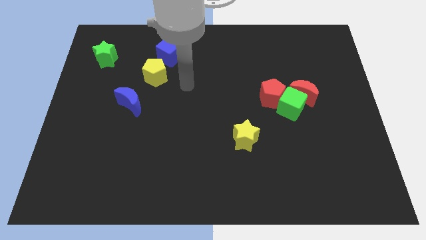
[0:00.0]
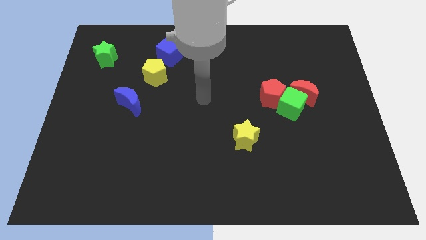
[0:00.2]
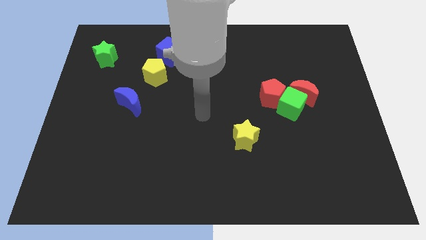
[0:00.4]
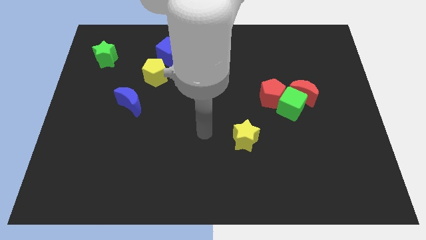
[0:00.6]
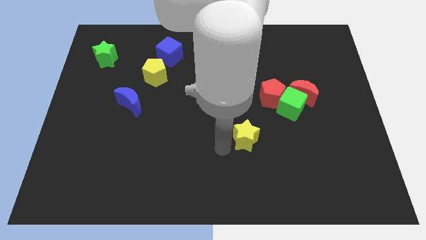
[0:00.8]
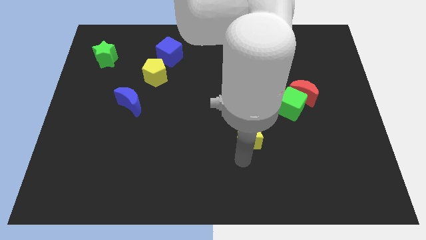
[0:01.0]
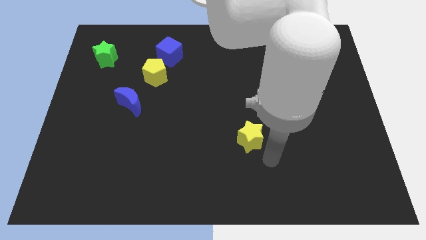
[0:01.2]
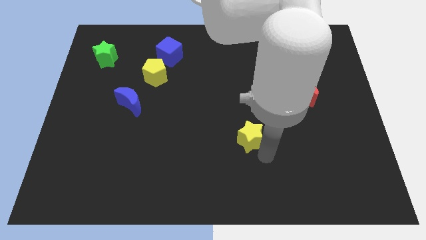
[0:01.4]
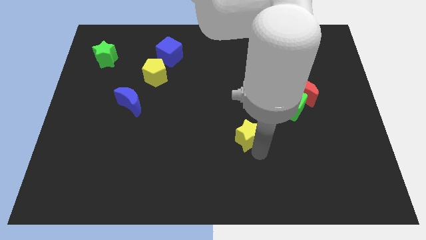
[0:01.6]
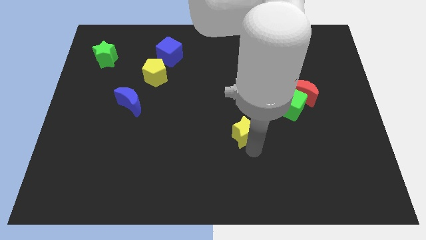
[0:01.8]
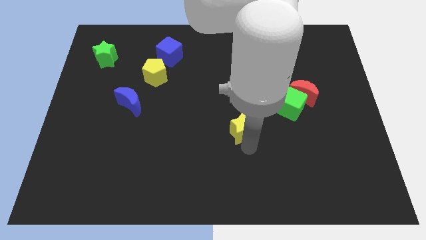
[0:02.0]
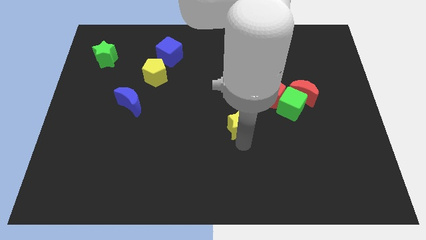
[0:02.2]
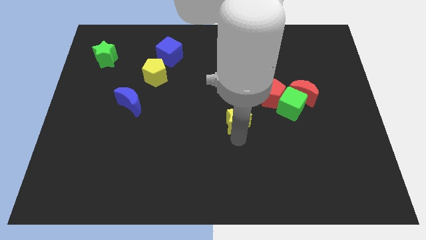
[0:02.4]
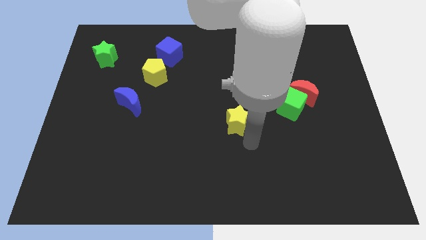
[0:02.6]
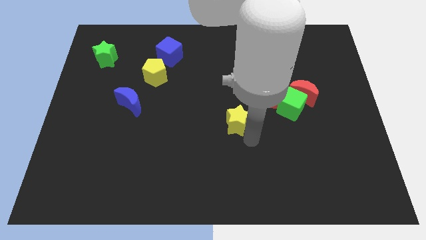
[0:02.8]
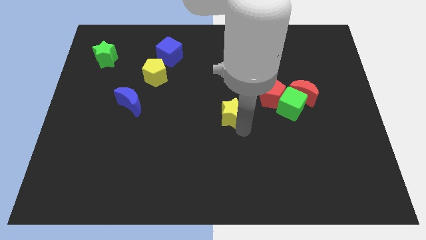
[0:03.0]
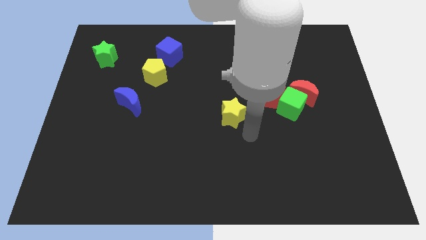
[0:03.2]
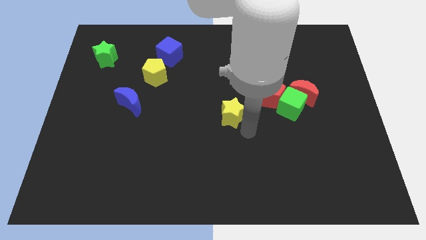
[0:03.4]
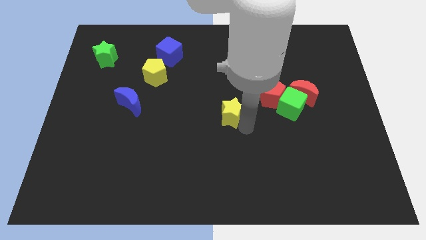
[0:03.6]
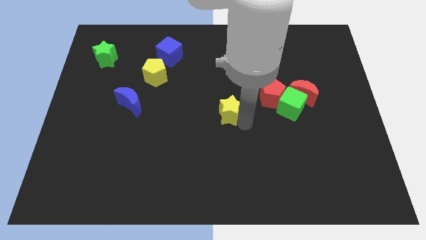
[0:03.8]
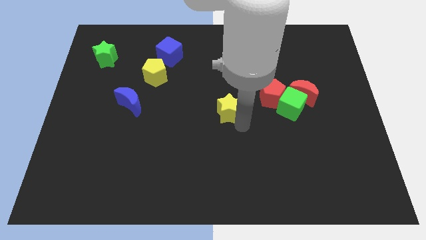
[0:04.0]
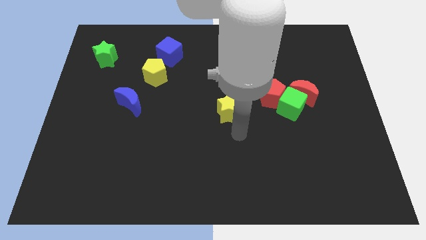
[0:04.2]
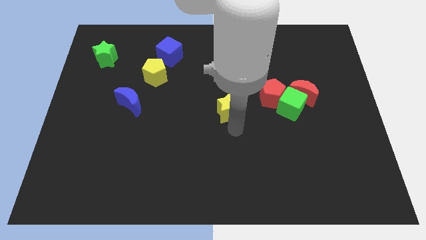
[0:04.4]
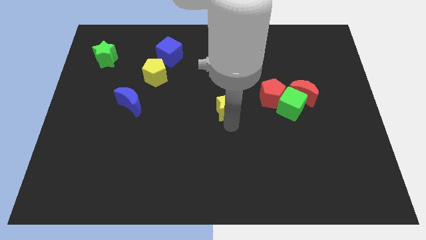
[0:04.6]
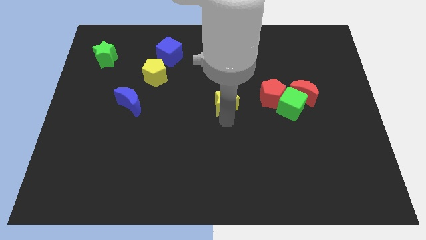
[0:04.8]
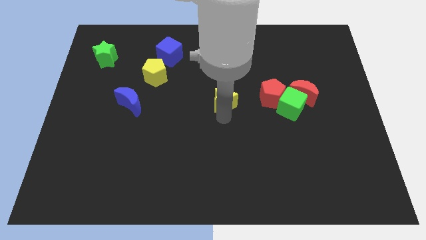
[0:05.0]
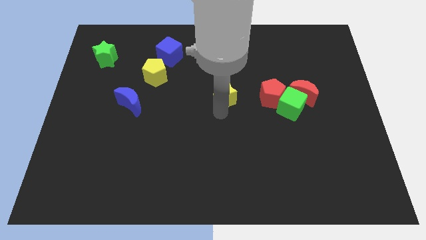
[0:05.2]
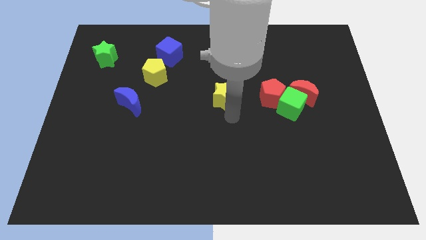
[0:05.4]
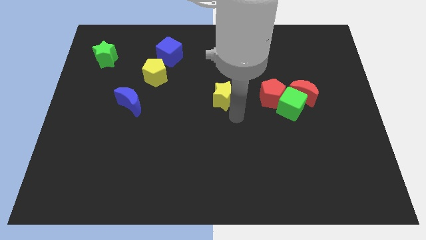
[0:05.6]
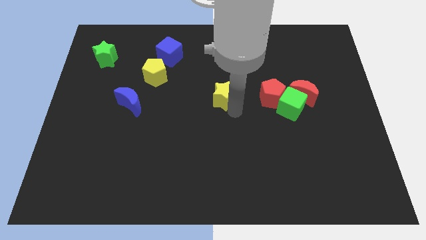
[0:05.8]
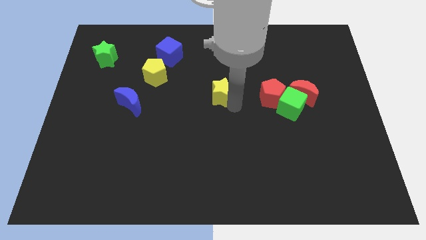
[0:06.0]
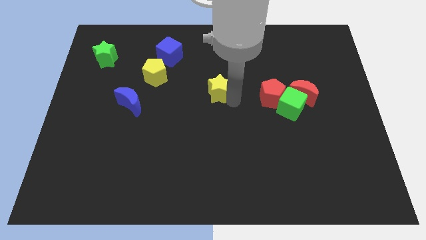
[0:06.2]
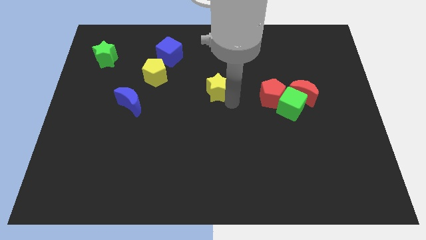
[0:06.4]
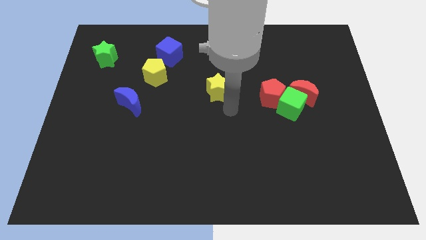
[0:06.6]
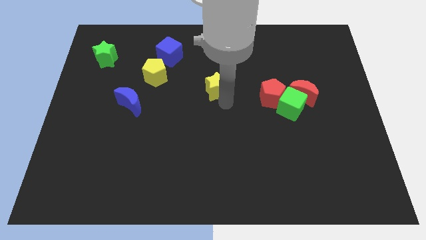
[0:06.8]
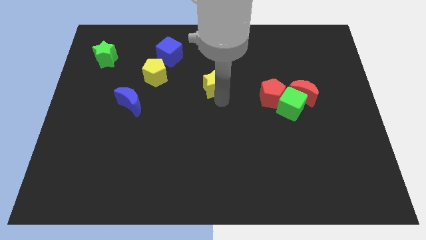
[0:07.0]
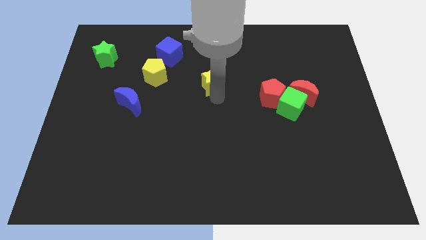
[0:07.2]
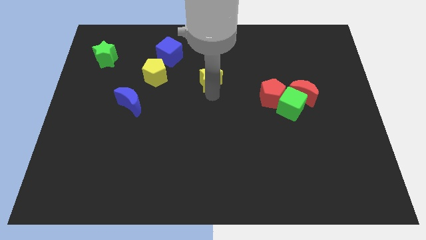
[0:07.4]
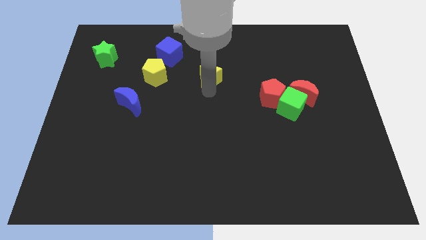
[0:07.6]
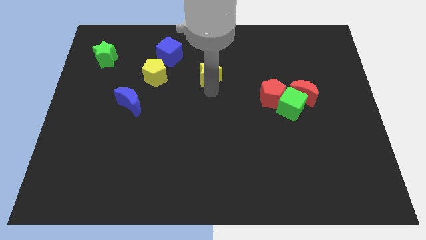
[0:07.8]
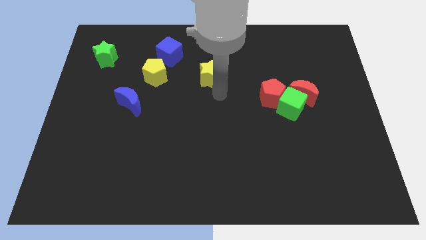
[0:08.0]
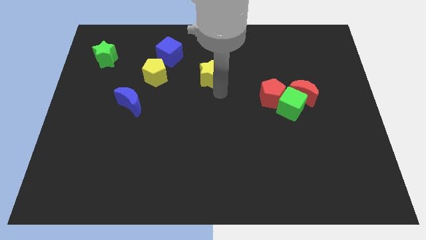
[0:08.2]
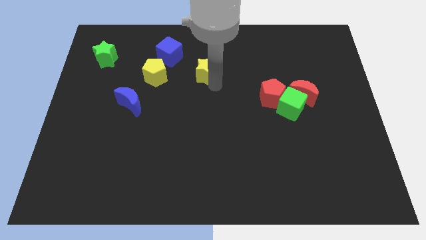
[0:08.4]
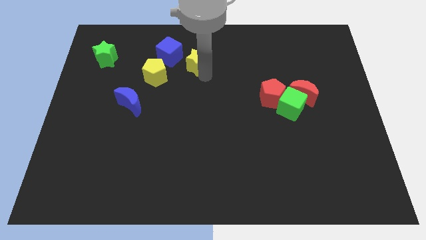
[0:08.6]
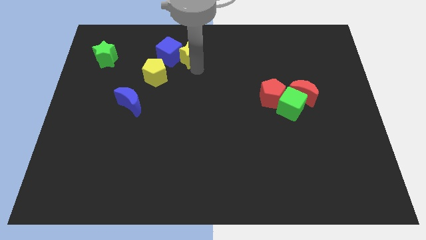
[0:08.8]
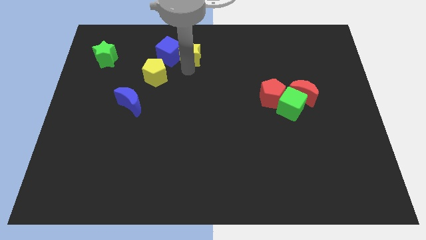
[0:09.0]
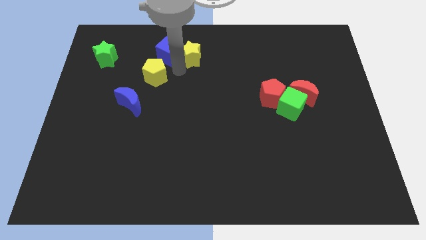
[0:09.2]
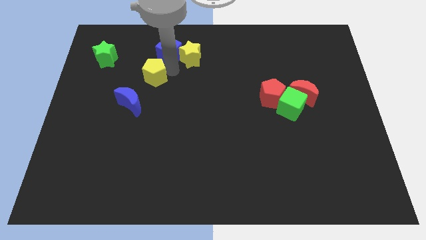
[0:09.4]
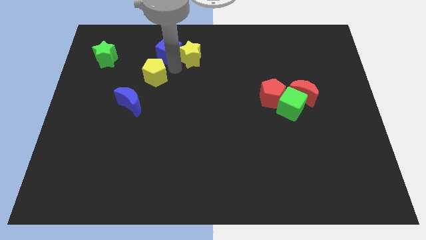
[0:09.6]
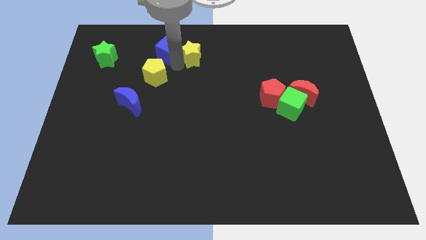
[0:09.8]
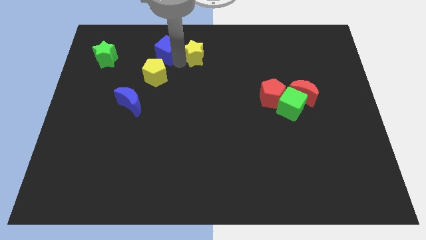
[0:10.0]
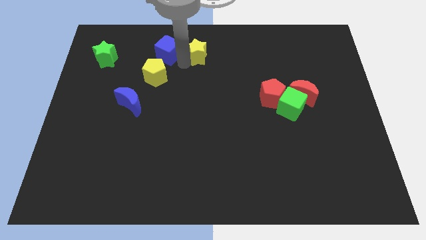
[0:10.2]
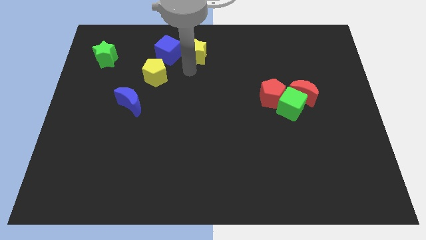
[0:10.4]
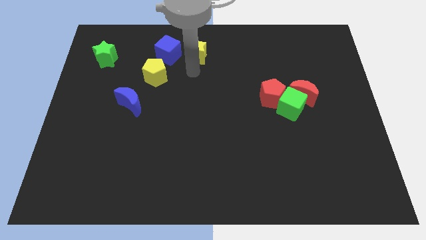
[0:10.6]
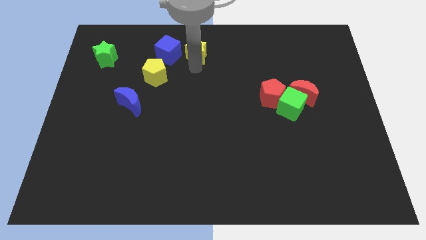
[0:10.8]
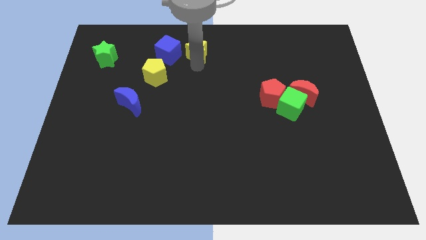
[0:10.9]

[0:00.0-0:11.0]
put the yellow star to the towards your base
